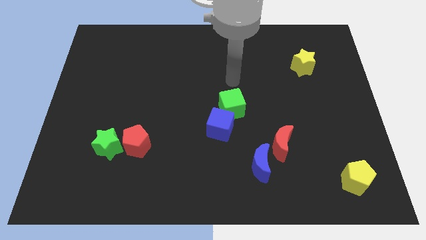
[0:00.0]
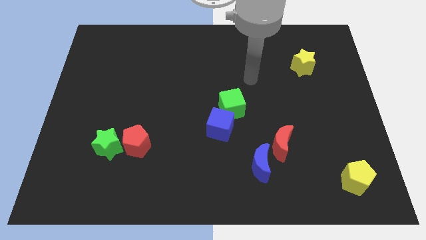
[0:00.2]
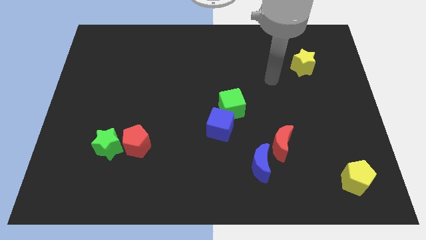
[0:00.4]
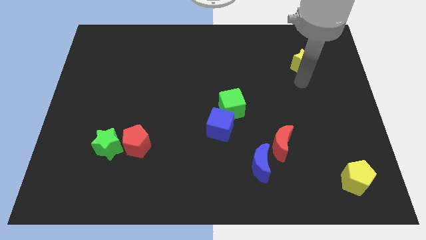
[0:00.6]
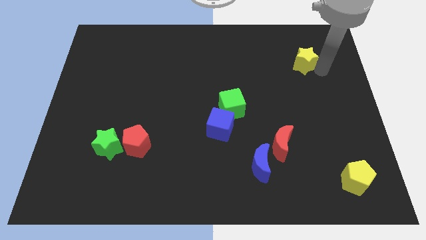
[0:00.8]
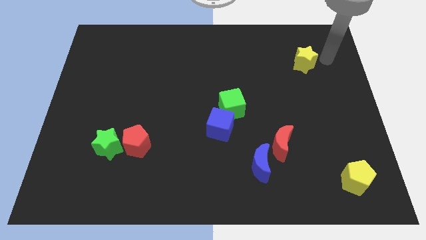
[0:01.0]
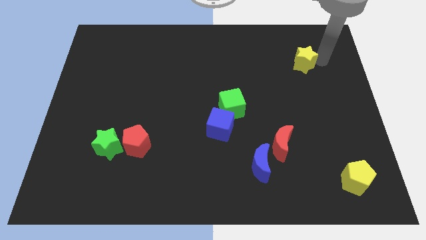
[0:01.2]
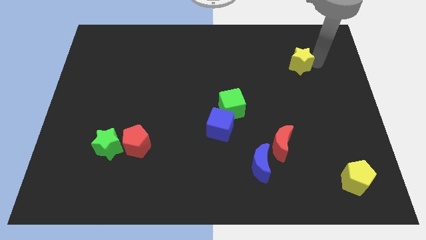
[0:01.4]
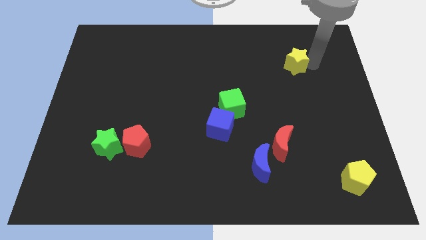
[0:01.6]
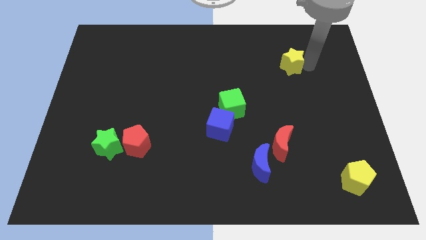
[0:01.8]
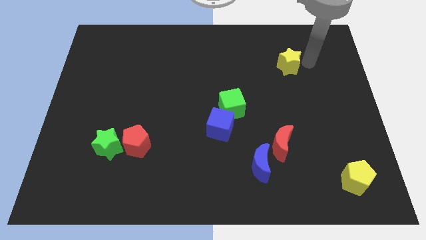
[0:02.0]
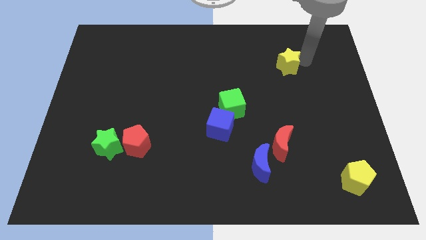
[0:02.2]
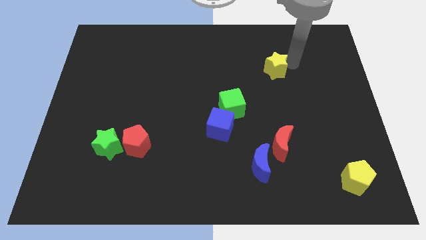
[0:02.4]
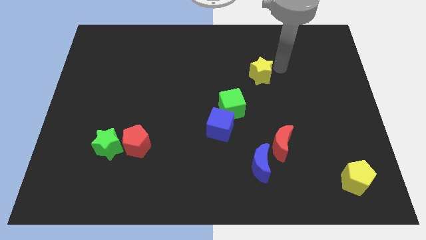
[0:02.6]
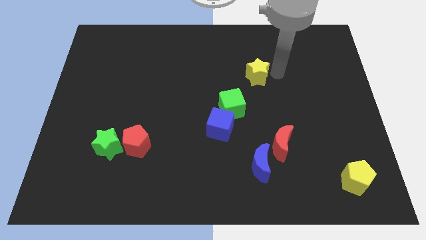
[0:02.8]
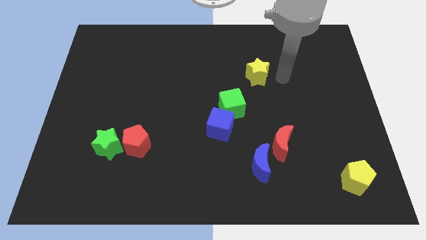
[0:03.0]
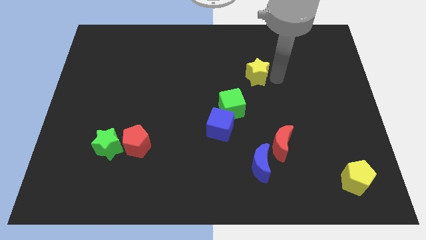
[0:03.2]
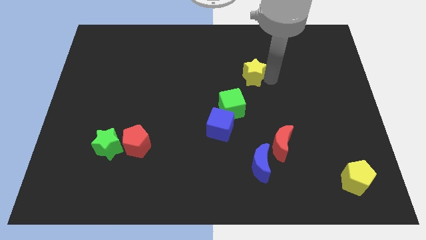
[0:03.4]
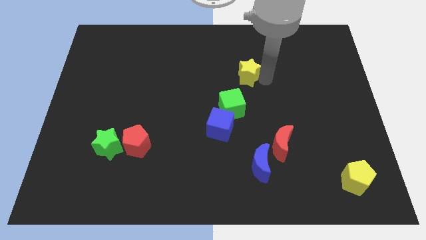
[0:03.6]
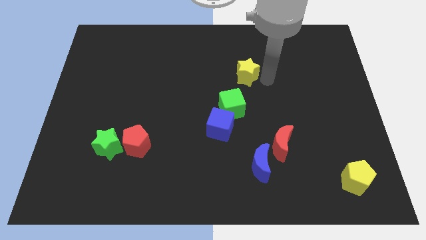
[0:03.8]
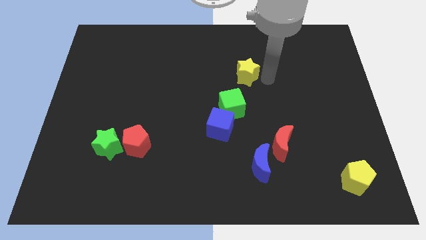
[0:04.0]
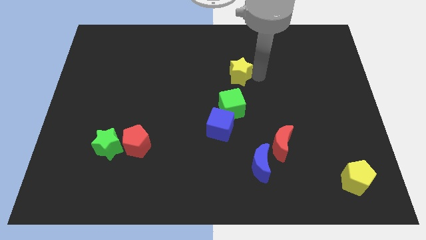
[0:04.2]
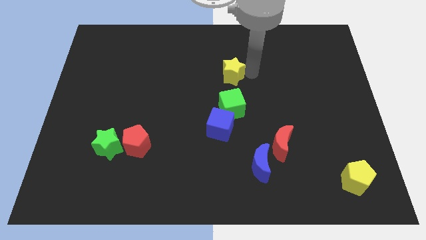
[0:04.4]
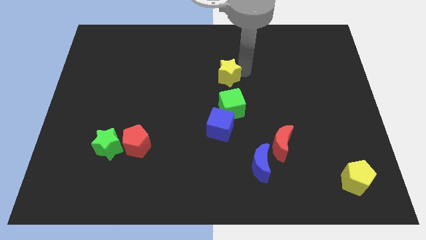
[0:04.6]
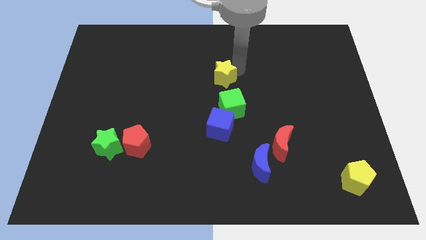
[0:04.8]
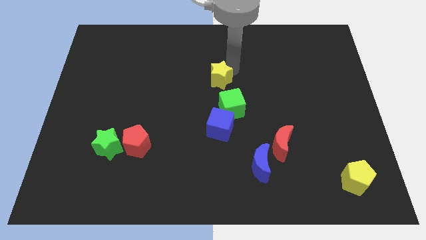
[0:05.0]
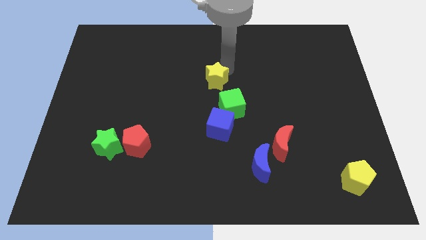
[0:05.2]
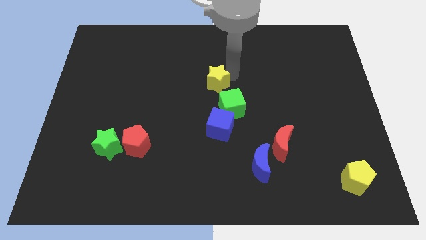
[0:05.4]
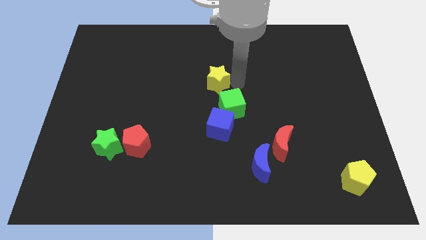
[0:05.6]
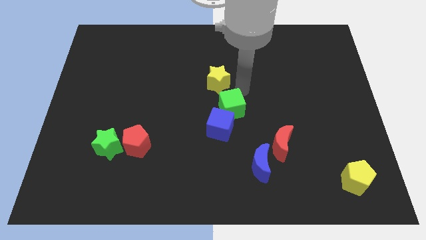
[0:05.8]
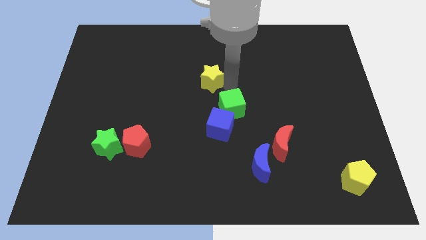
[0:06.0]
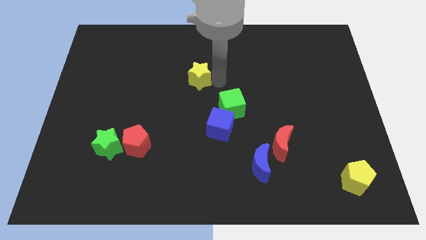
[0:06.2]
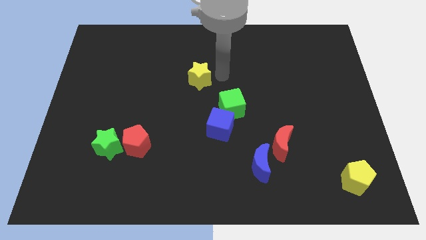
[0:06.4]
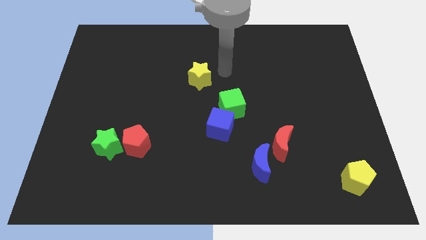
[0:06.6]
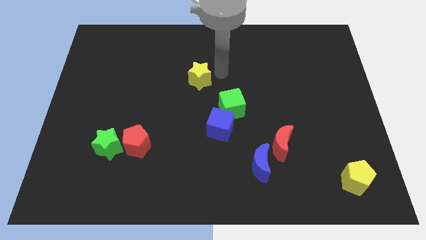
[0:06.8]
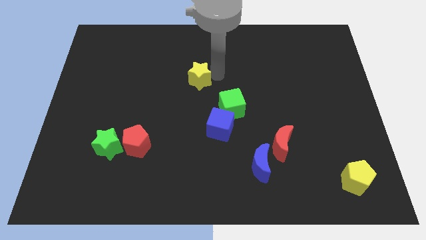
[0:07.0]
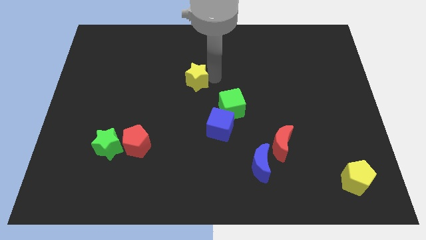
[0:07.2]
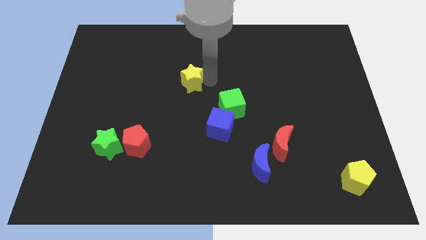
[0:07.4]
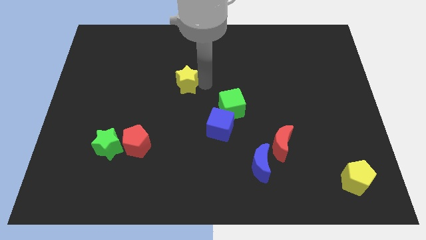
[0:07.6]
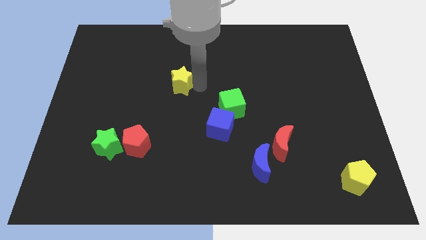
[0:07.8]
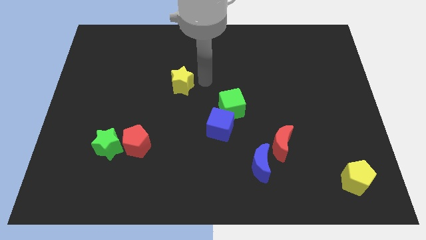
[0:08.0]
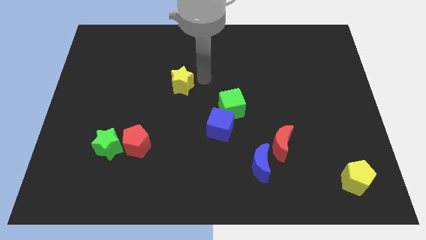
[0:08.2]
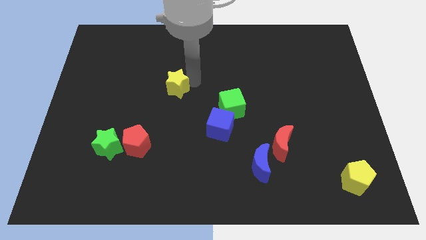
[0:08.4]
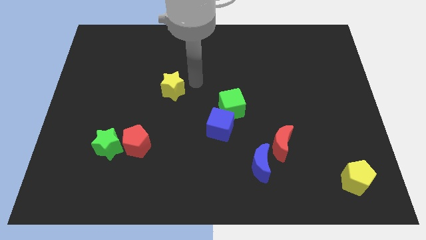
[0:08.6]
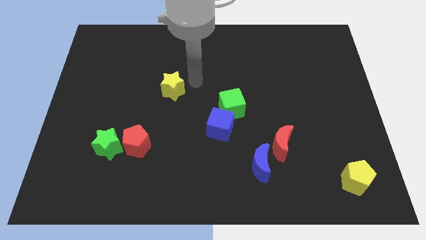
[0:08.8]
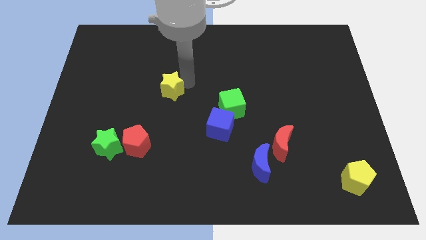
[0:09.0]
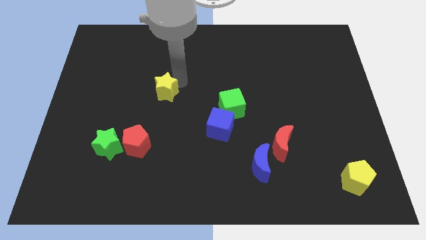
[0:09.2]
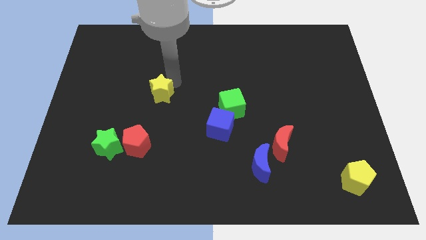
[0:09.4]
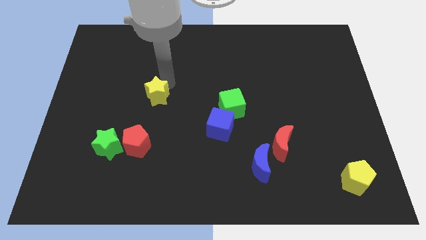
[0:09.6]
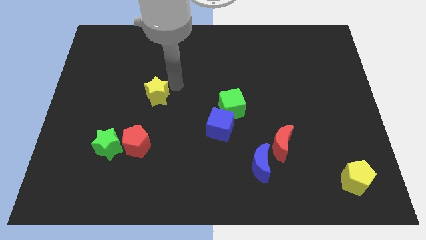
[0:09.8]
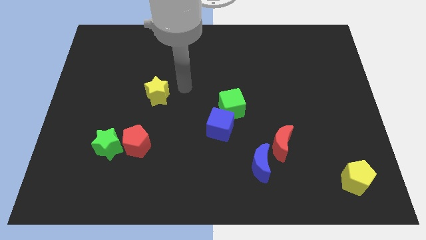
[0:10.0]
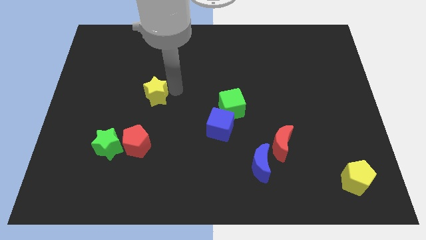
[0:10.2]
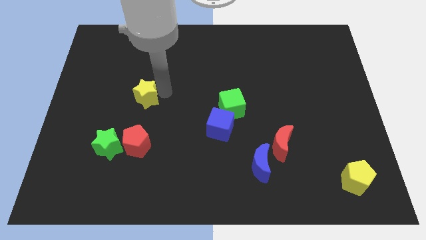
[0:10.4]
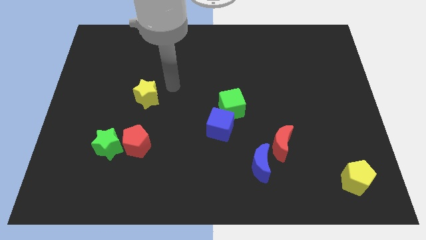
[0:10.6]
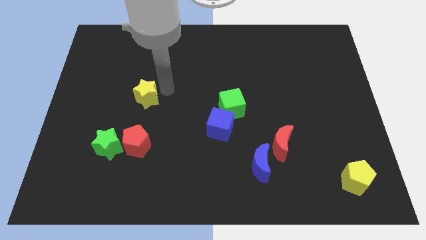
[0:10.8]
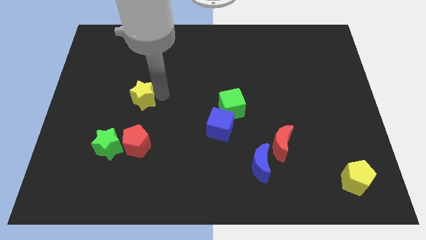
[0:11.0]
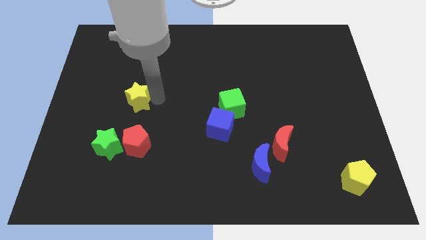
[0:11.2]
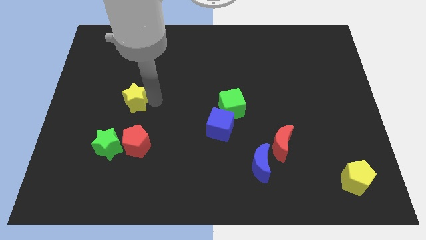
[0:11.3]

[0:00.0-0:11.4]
put the yellow star to the top side of the green star

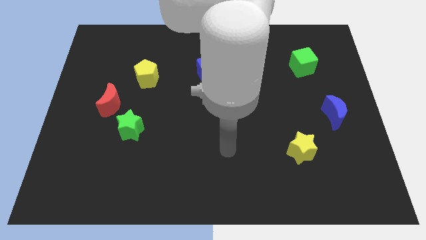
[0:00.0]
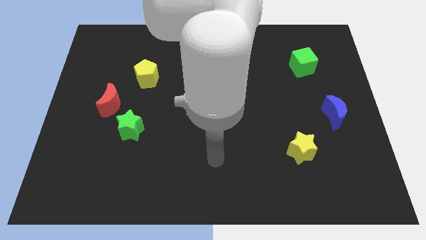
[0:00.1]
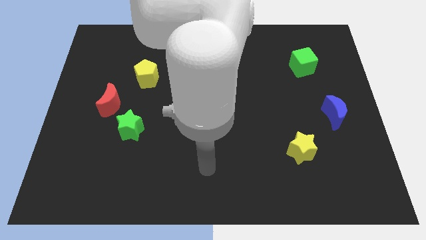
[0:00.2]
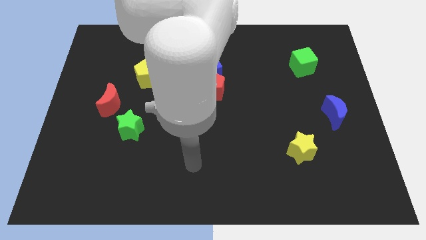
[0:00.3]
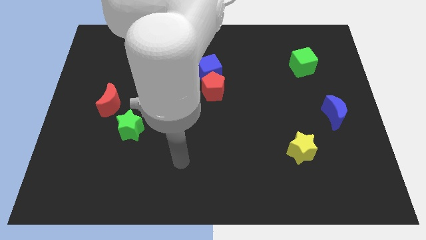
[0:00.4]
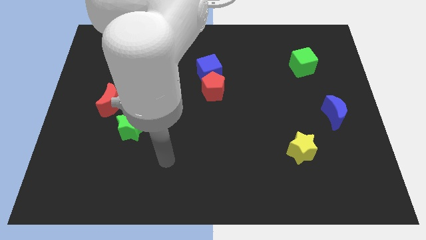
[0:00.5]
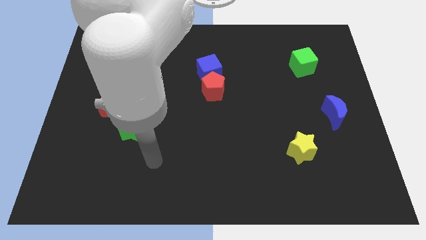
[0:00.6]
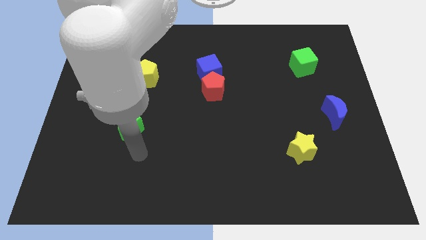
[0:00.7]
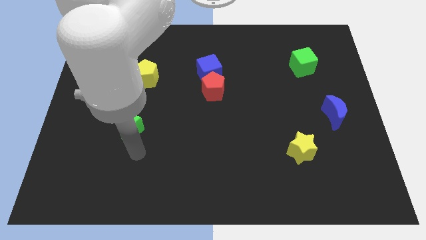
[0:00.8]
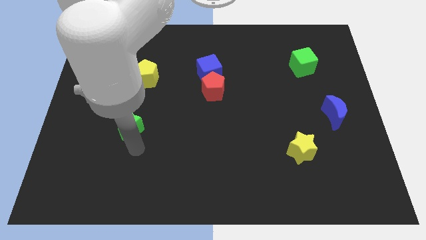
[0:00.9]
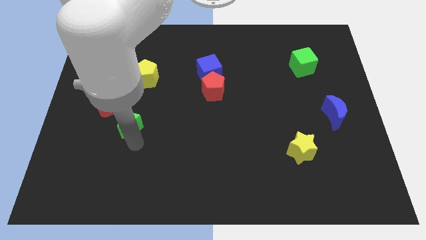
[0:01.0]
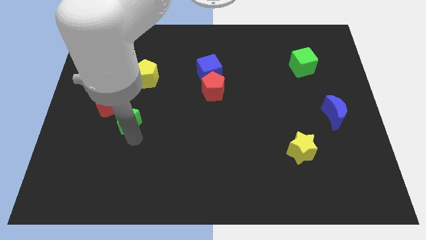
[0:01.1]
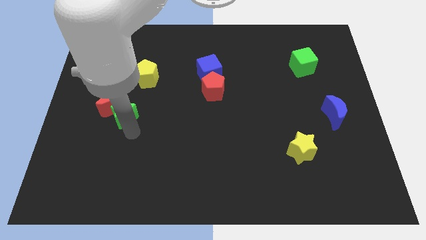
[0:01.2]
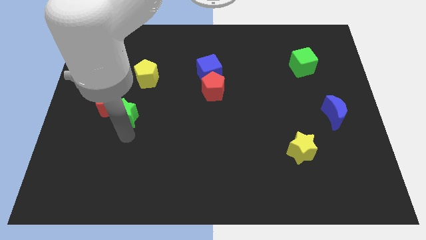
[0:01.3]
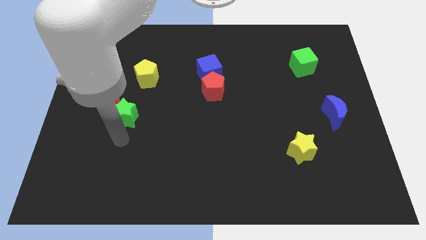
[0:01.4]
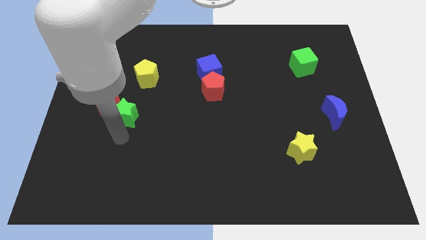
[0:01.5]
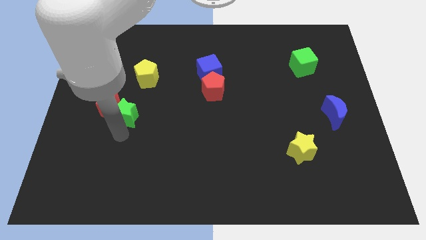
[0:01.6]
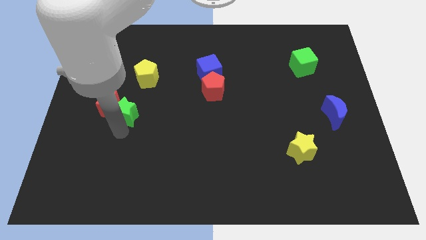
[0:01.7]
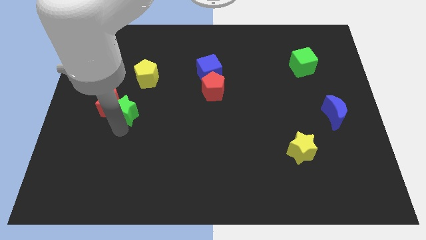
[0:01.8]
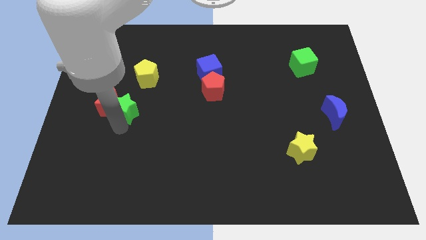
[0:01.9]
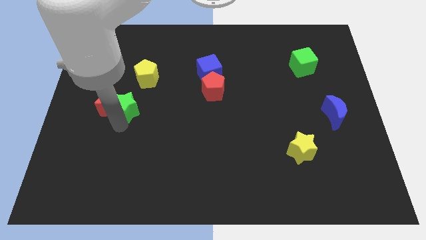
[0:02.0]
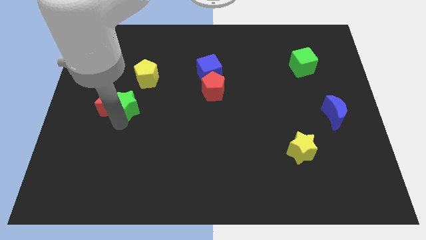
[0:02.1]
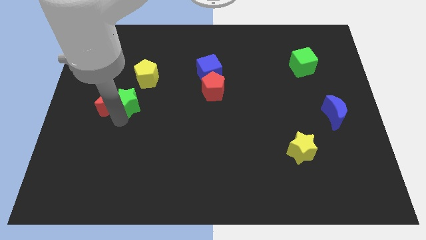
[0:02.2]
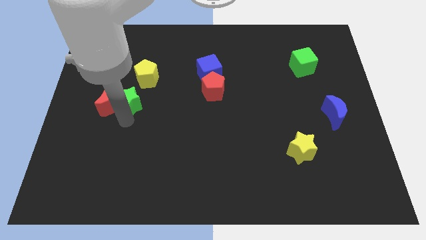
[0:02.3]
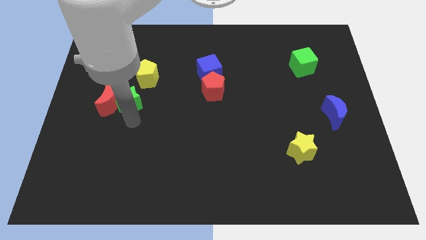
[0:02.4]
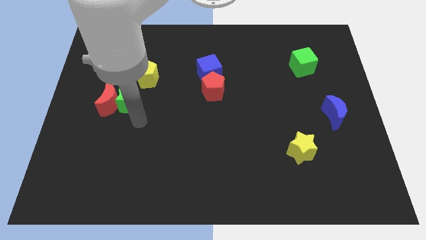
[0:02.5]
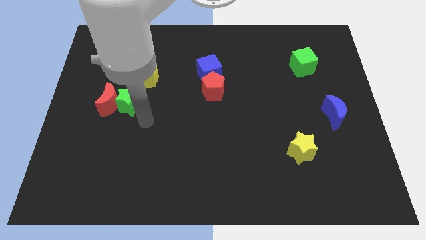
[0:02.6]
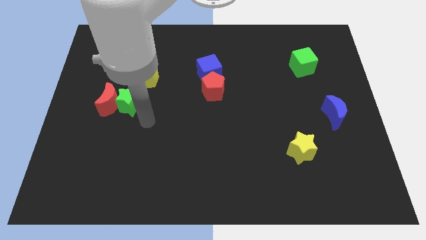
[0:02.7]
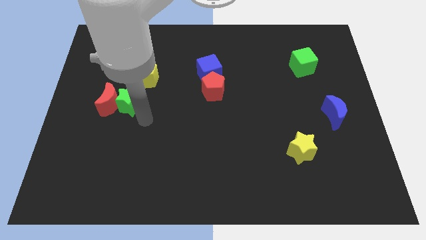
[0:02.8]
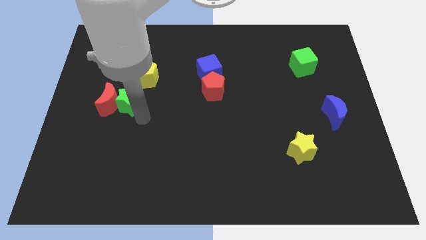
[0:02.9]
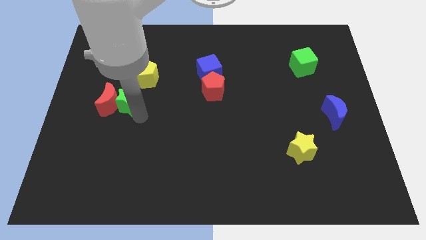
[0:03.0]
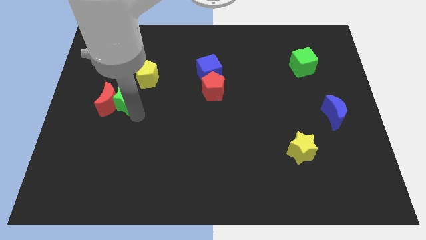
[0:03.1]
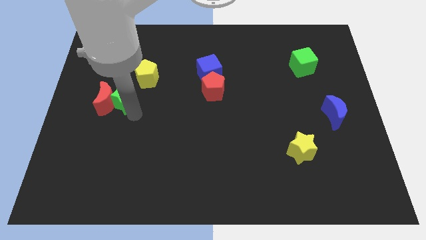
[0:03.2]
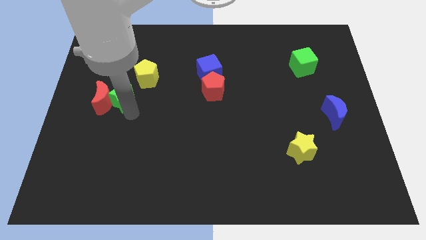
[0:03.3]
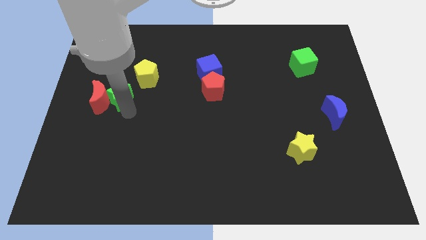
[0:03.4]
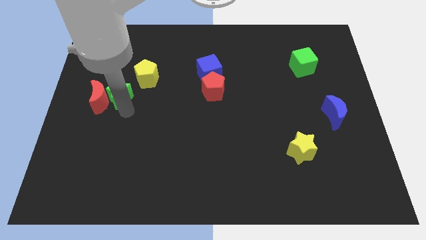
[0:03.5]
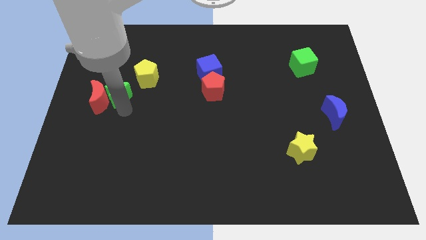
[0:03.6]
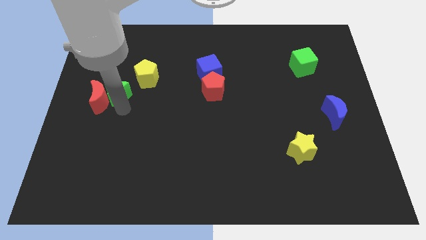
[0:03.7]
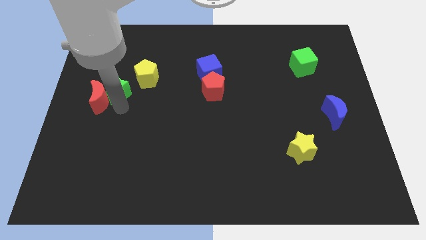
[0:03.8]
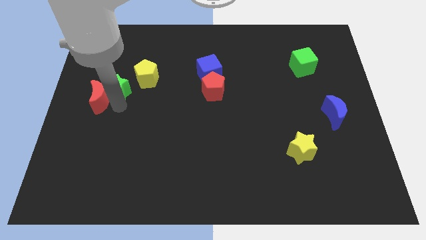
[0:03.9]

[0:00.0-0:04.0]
put the green star just left of the yellow pentagon
